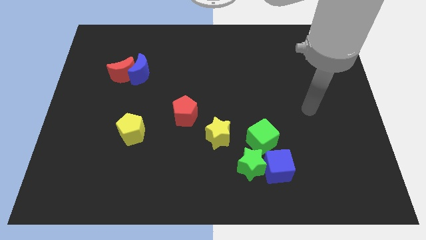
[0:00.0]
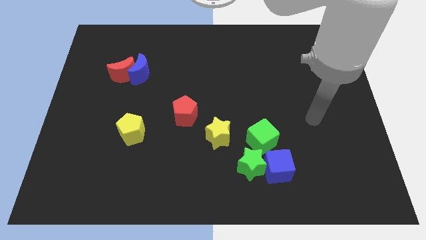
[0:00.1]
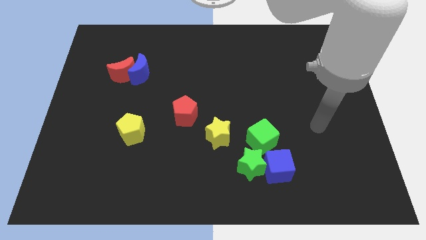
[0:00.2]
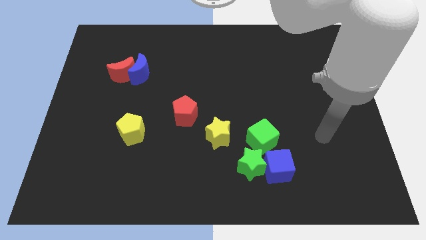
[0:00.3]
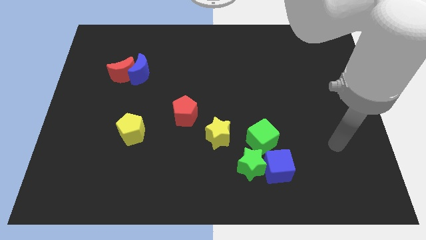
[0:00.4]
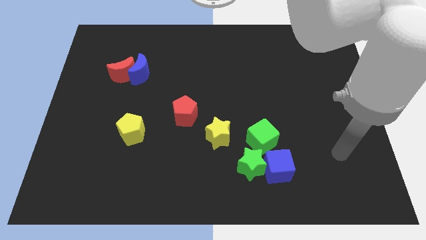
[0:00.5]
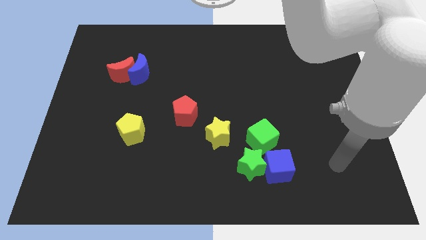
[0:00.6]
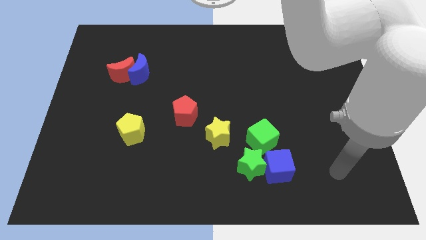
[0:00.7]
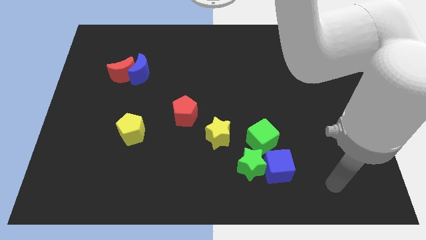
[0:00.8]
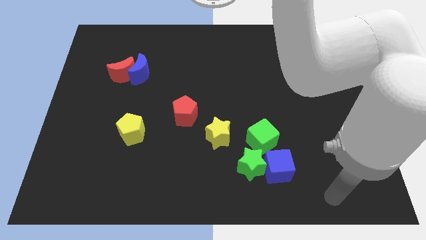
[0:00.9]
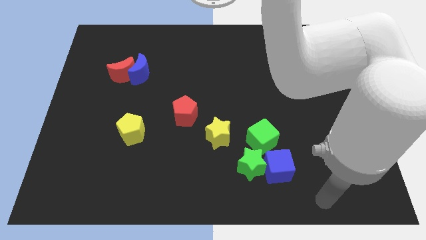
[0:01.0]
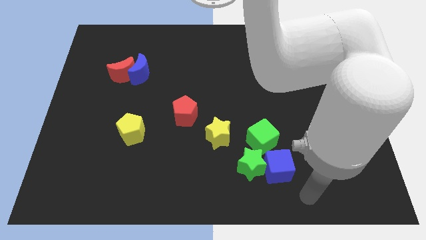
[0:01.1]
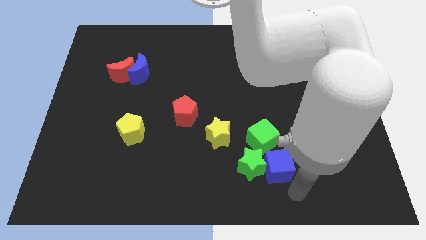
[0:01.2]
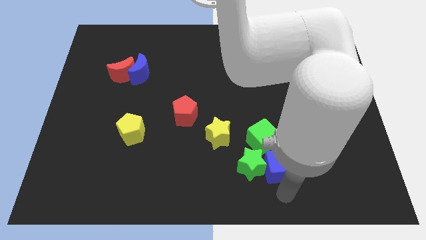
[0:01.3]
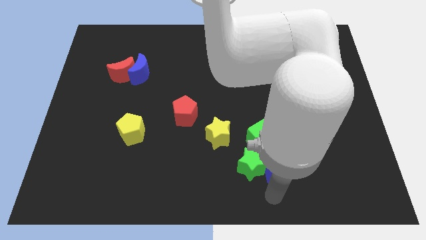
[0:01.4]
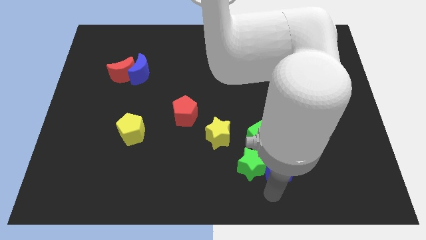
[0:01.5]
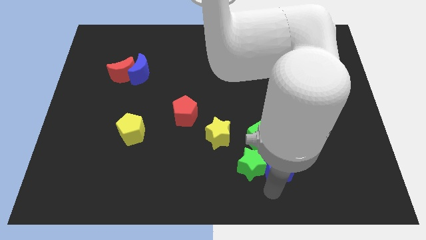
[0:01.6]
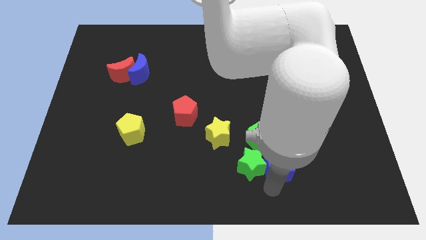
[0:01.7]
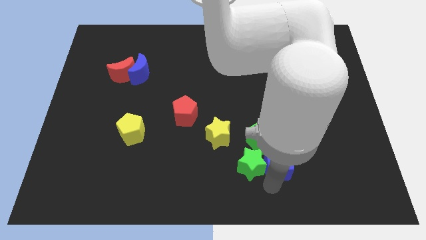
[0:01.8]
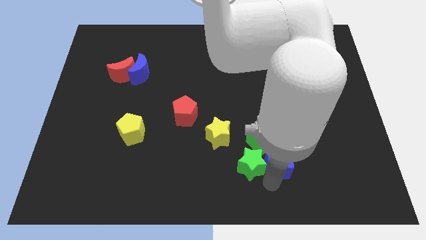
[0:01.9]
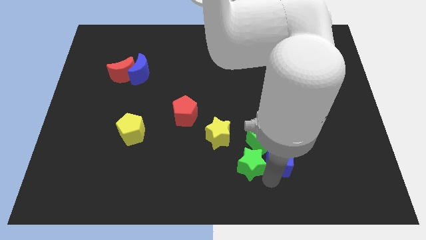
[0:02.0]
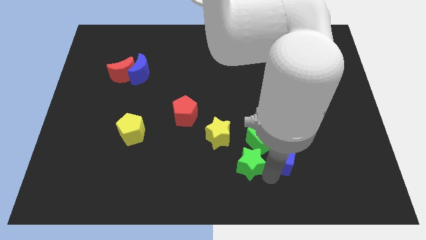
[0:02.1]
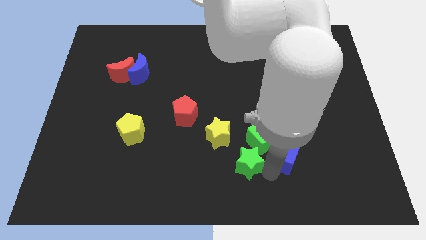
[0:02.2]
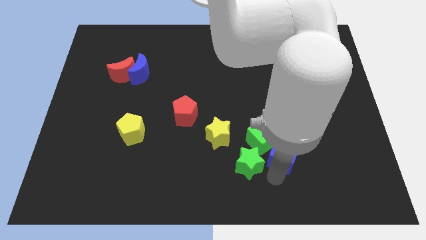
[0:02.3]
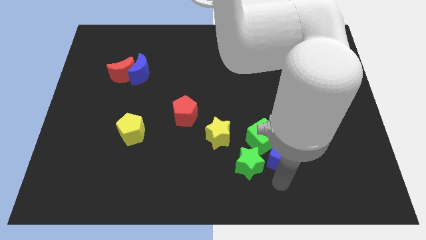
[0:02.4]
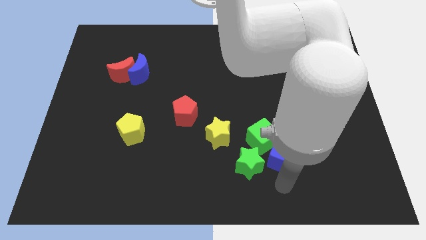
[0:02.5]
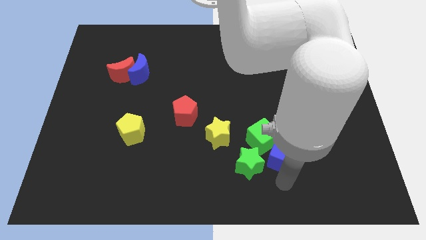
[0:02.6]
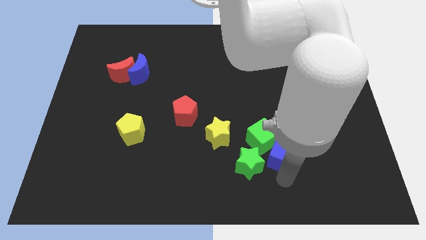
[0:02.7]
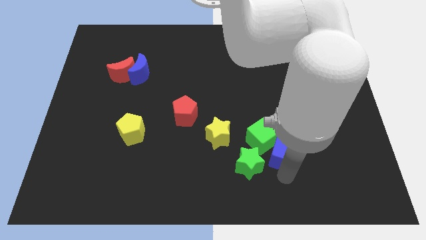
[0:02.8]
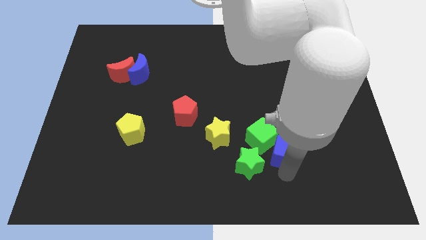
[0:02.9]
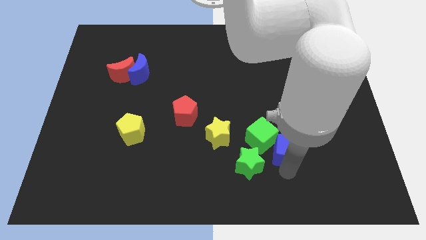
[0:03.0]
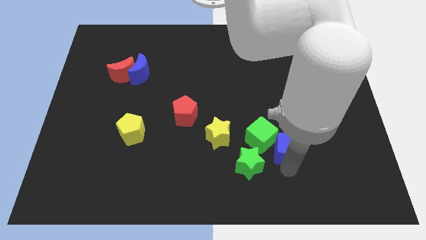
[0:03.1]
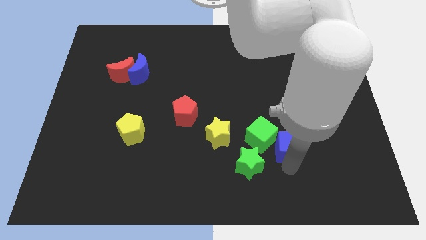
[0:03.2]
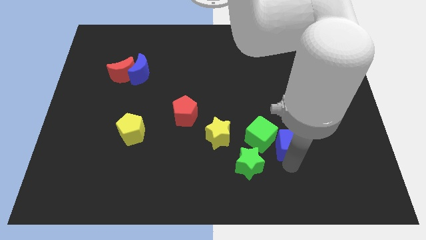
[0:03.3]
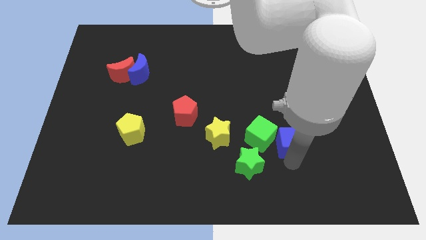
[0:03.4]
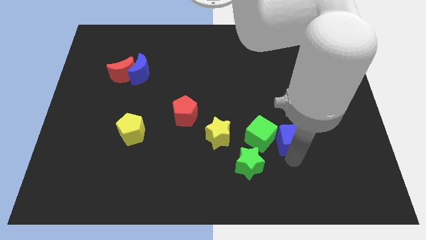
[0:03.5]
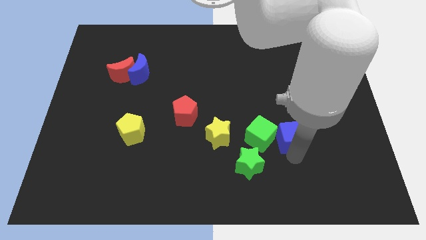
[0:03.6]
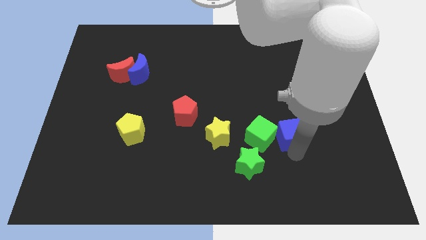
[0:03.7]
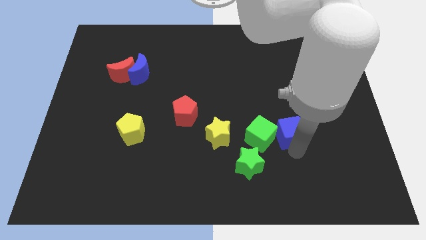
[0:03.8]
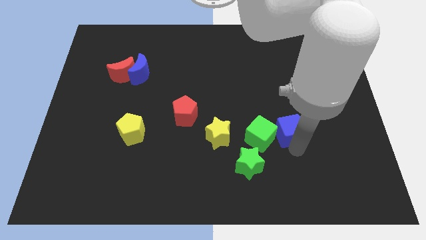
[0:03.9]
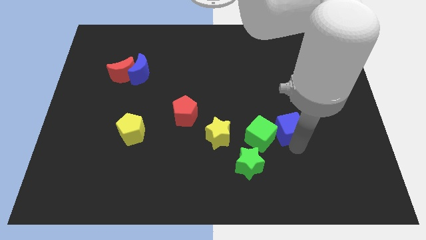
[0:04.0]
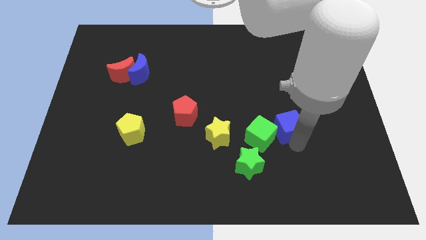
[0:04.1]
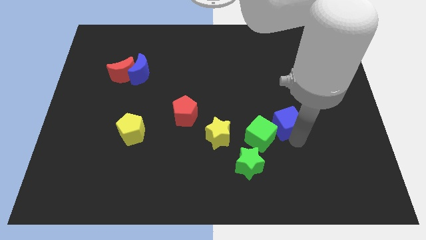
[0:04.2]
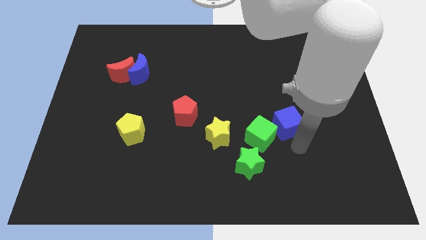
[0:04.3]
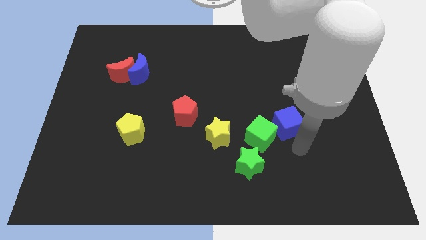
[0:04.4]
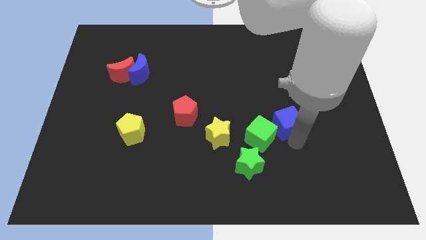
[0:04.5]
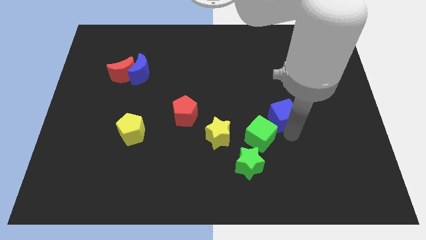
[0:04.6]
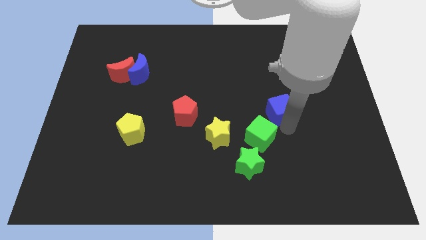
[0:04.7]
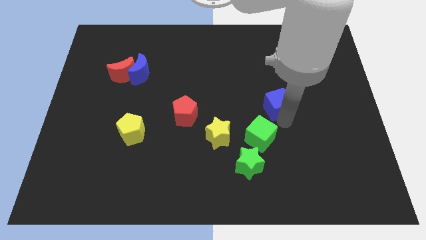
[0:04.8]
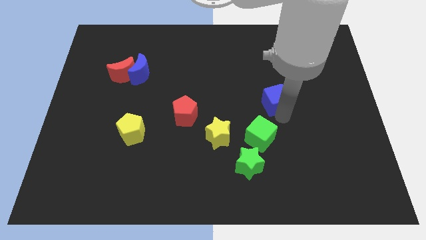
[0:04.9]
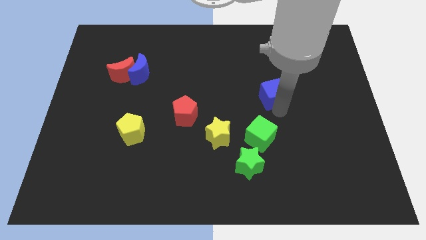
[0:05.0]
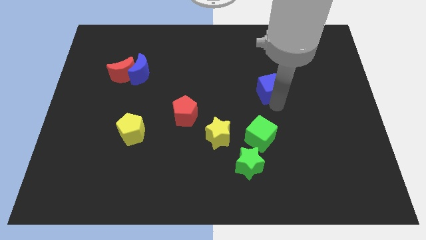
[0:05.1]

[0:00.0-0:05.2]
push the blue cube up

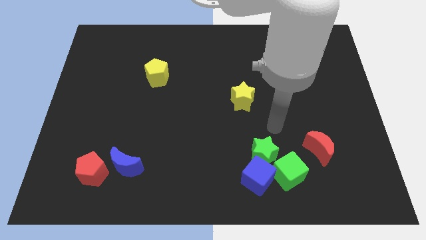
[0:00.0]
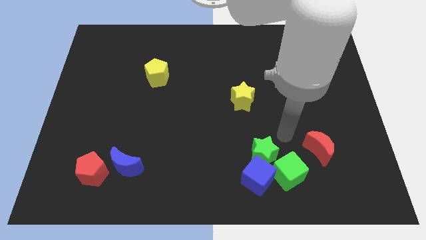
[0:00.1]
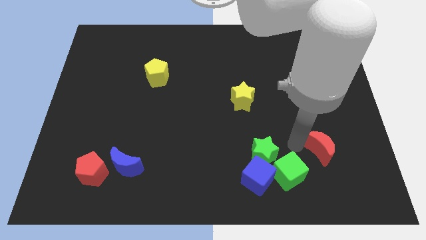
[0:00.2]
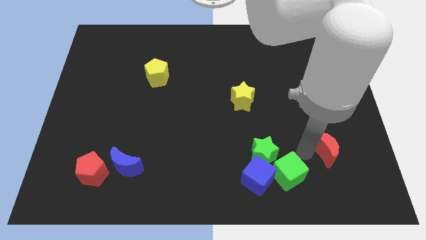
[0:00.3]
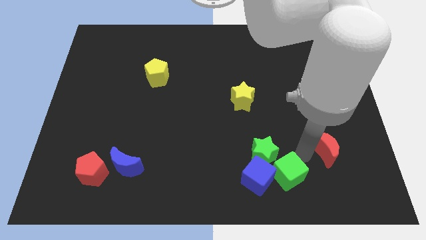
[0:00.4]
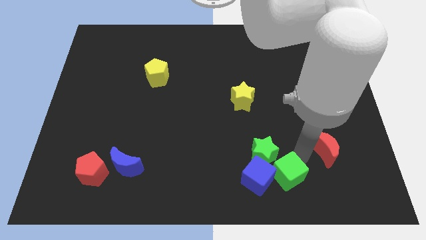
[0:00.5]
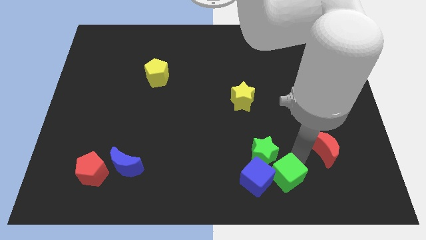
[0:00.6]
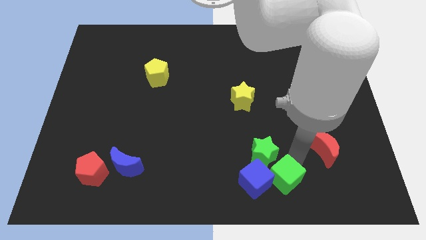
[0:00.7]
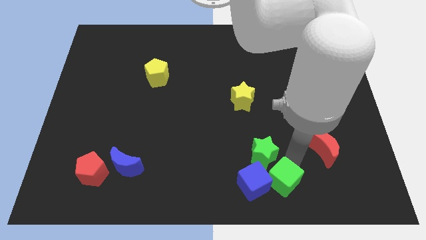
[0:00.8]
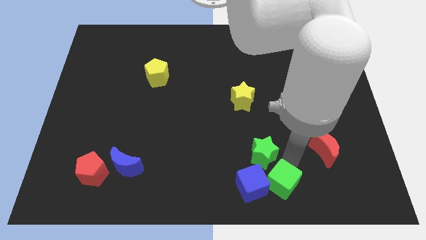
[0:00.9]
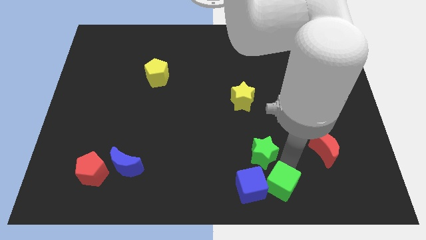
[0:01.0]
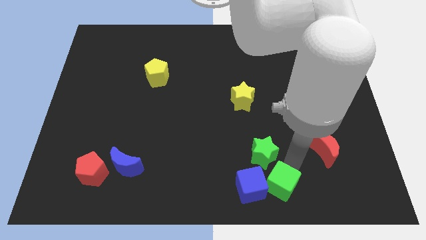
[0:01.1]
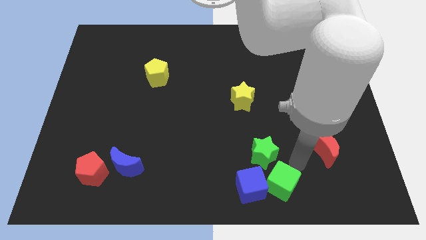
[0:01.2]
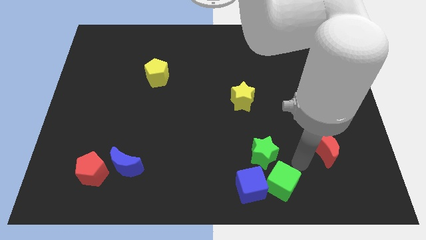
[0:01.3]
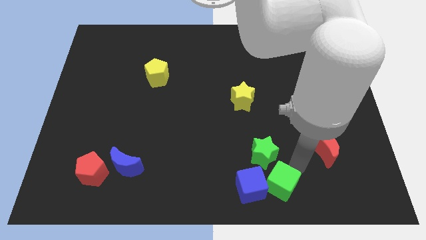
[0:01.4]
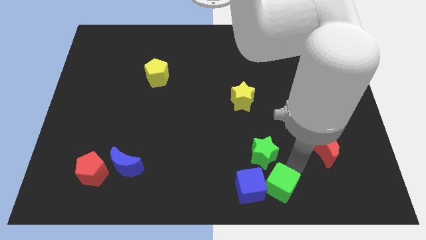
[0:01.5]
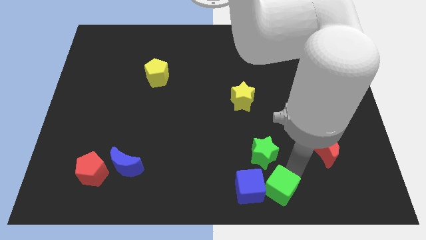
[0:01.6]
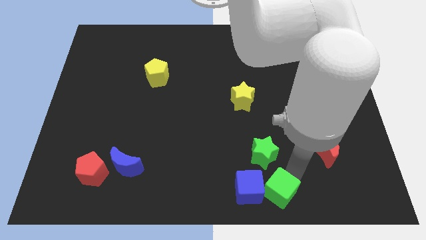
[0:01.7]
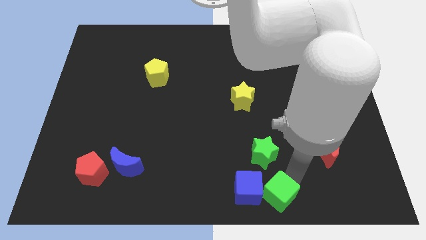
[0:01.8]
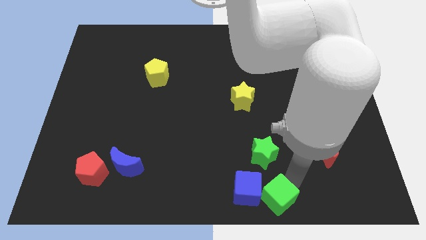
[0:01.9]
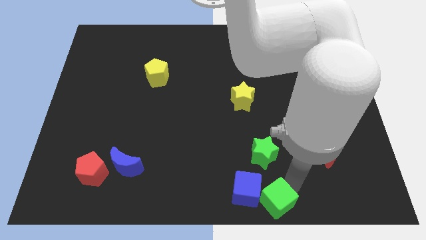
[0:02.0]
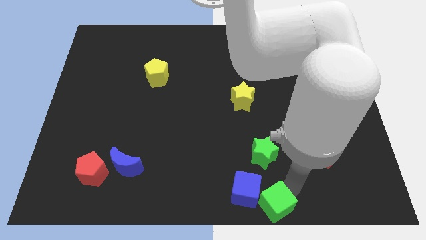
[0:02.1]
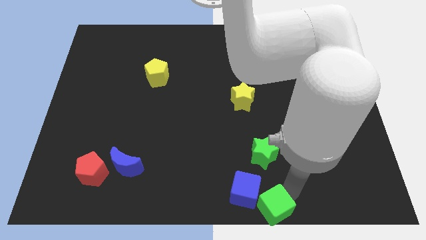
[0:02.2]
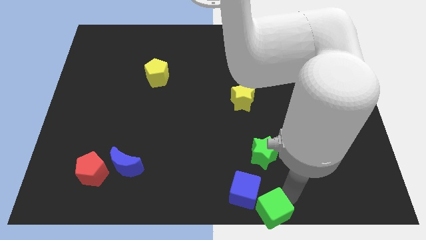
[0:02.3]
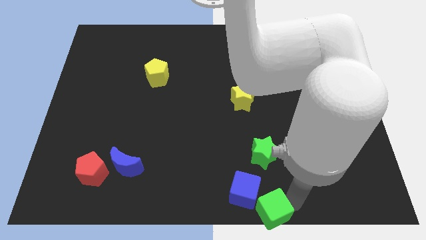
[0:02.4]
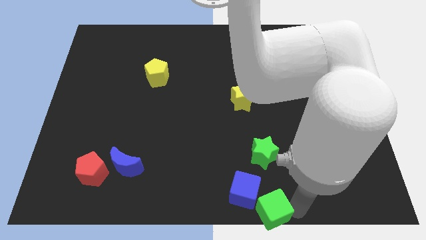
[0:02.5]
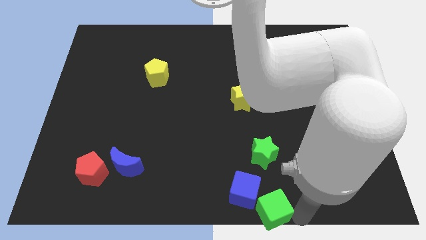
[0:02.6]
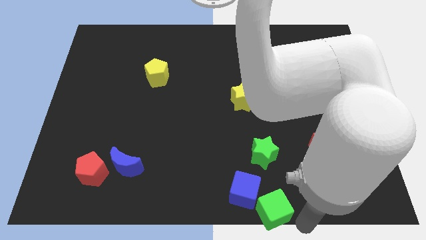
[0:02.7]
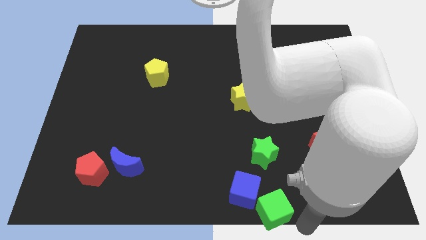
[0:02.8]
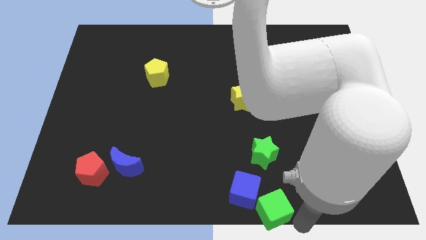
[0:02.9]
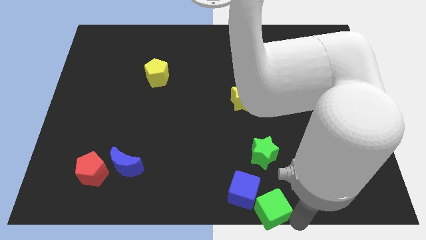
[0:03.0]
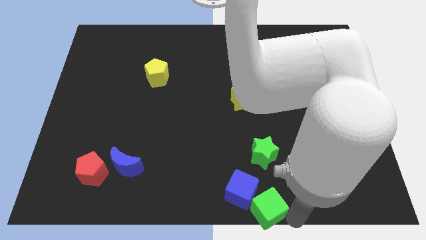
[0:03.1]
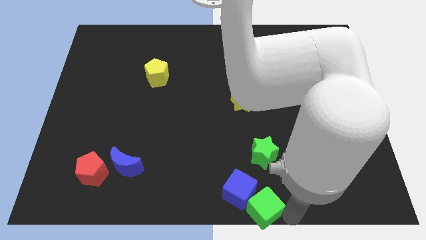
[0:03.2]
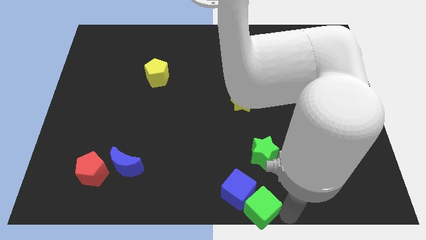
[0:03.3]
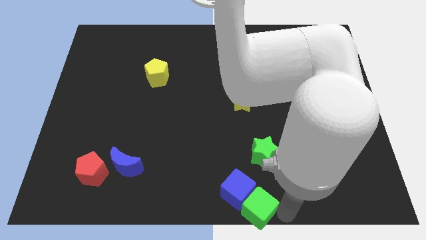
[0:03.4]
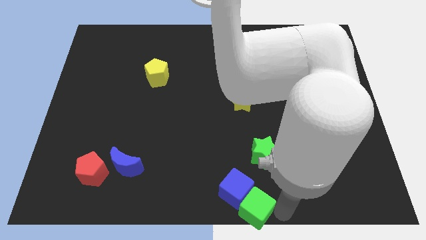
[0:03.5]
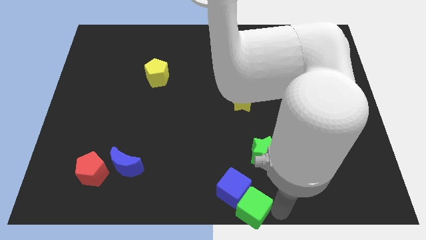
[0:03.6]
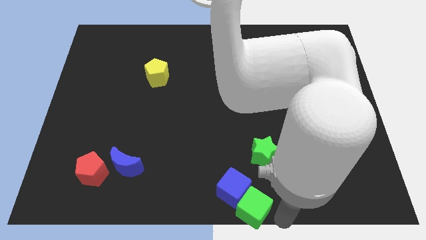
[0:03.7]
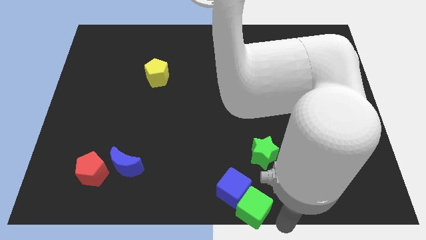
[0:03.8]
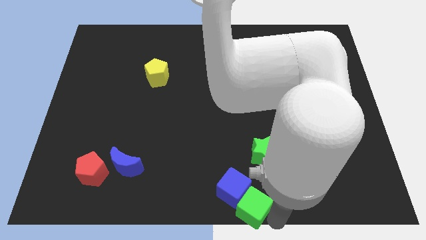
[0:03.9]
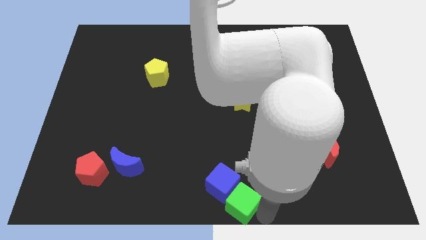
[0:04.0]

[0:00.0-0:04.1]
slide the green cube to the left a bit
